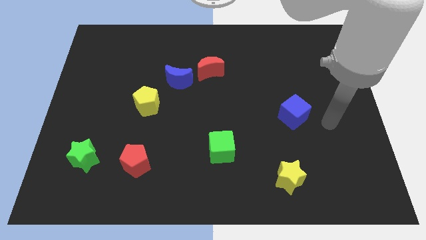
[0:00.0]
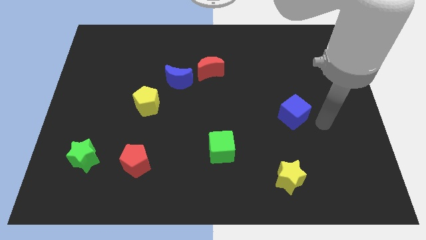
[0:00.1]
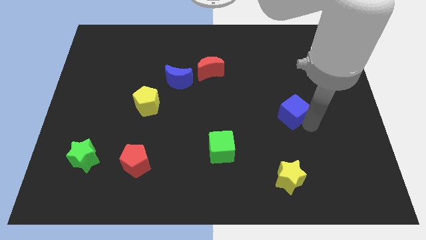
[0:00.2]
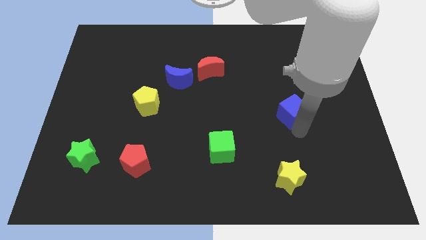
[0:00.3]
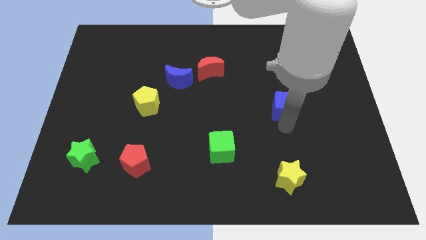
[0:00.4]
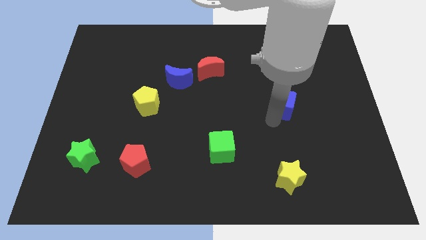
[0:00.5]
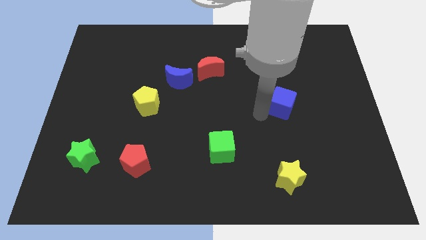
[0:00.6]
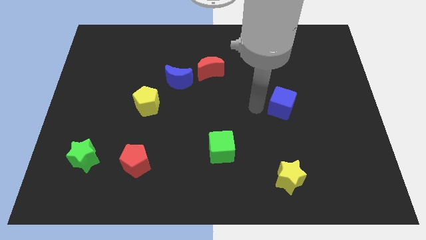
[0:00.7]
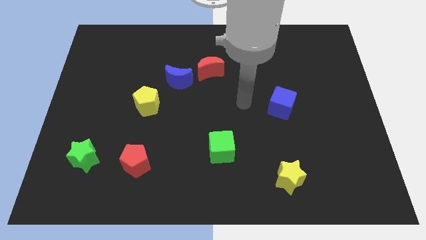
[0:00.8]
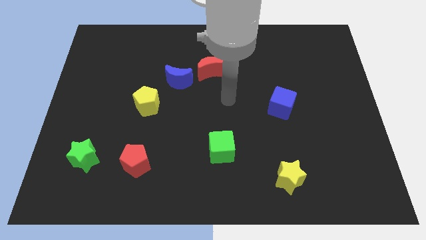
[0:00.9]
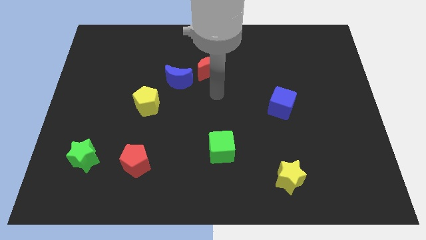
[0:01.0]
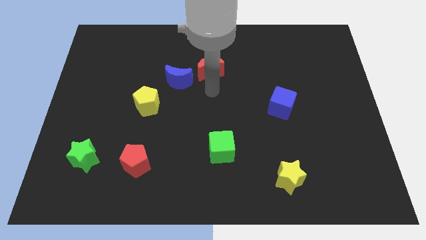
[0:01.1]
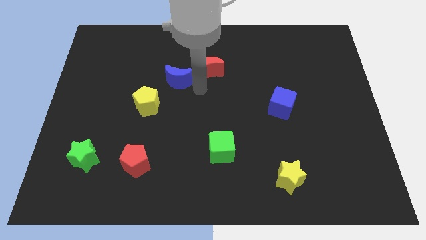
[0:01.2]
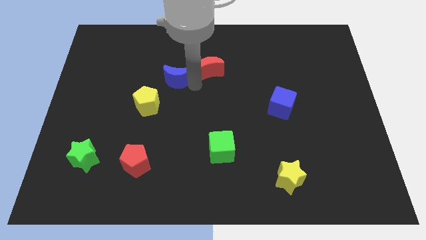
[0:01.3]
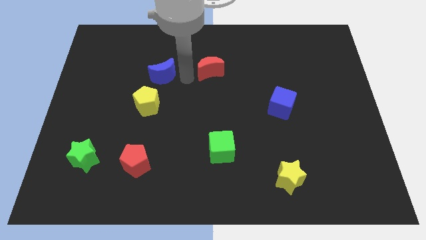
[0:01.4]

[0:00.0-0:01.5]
pull the red moon apart from the blue moon

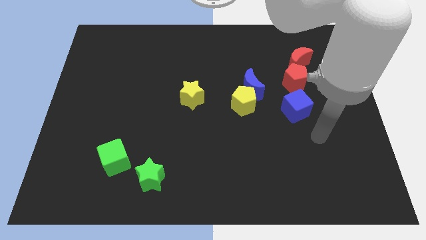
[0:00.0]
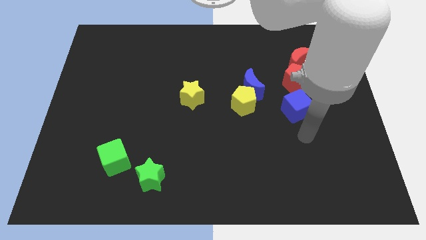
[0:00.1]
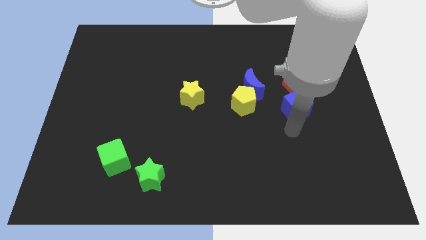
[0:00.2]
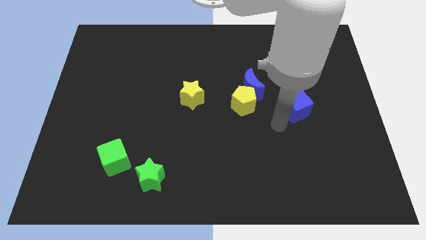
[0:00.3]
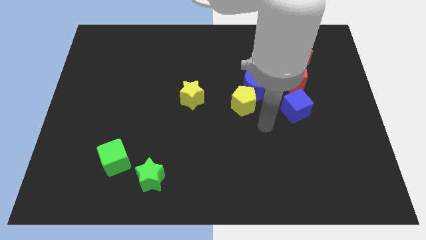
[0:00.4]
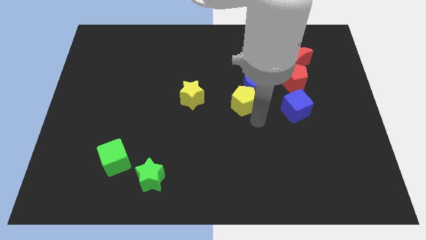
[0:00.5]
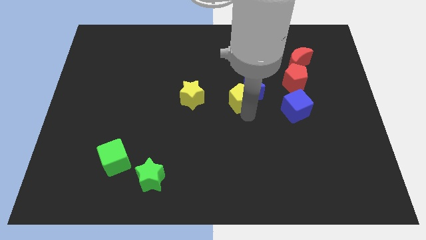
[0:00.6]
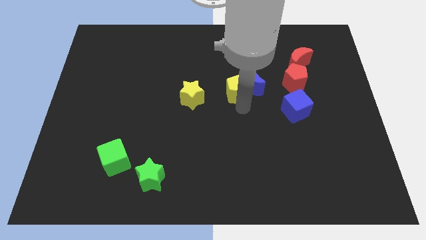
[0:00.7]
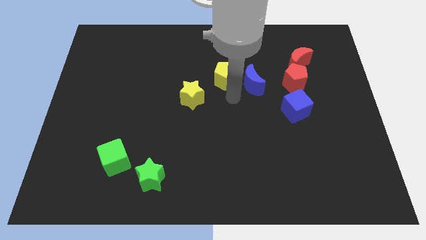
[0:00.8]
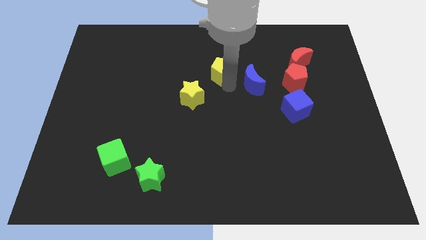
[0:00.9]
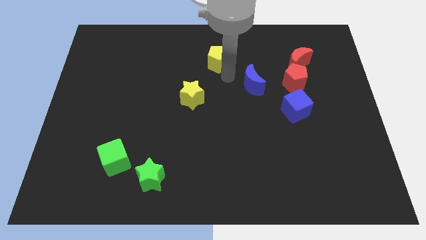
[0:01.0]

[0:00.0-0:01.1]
move the blue moon away from the yellow pentagon

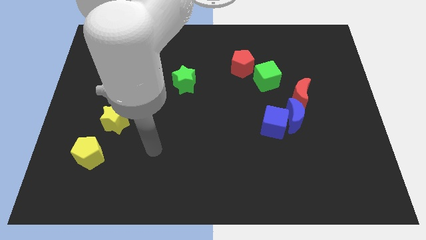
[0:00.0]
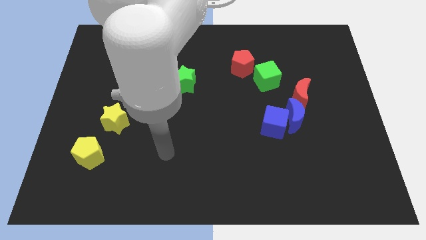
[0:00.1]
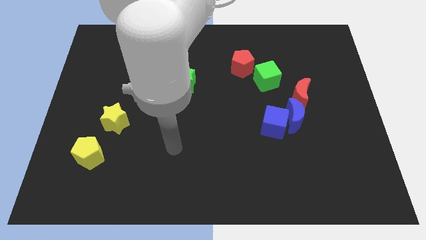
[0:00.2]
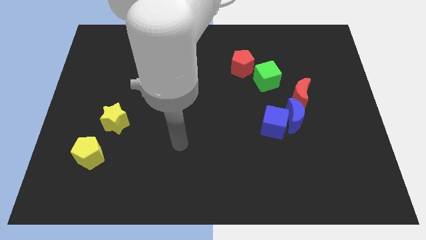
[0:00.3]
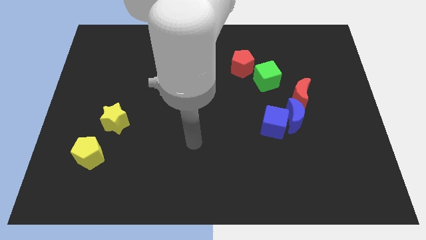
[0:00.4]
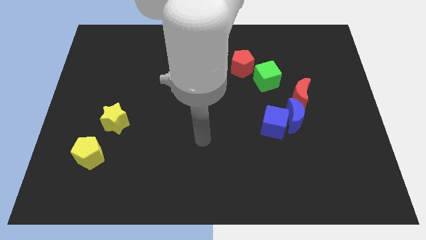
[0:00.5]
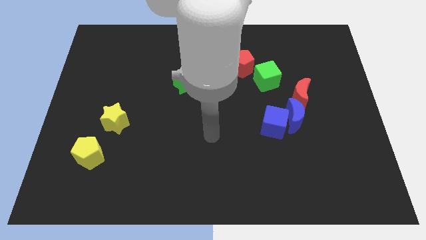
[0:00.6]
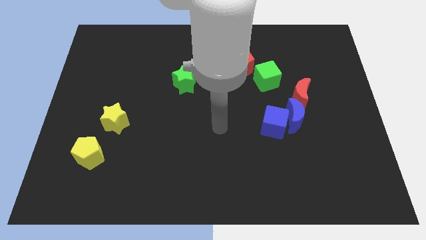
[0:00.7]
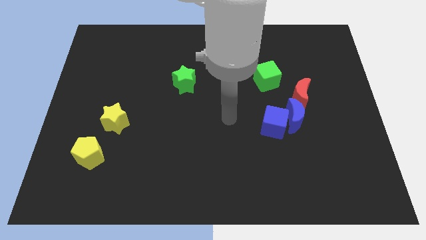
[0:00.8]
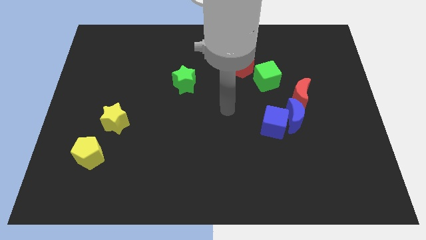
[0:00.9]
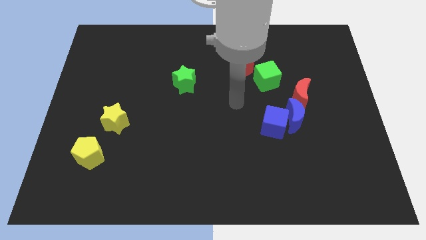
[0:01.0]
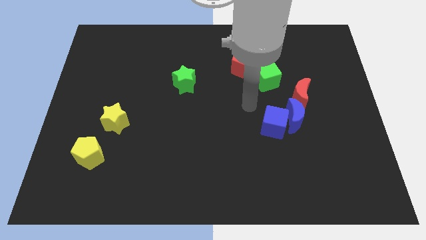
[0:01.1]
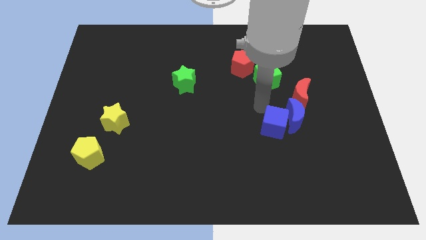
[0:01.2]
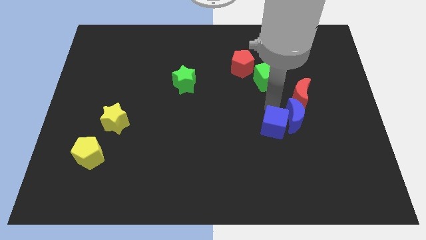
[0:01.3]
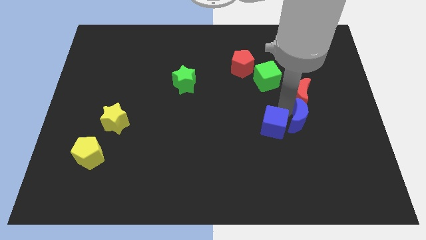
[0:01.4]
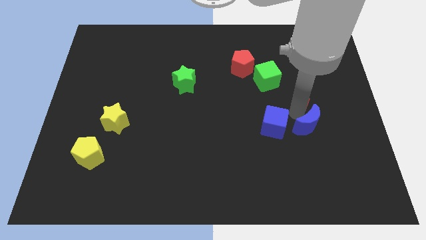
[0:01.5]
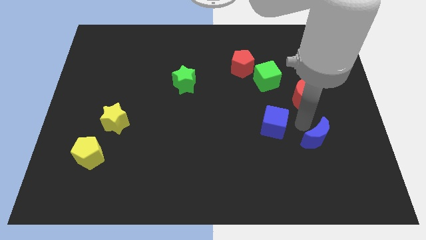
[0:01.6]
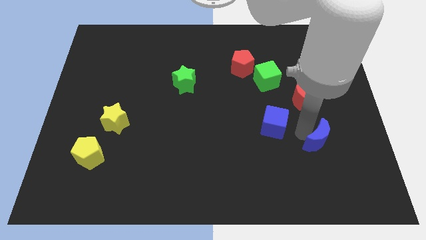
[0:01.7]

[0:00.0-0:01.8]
pull the blue cube apart from the blue moon

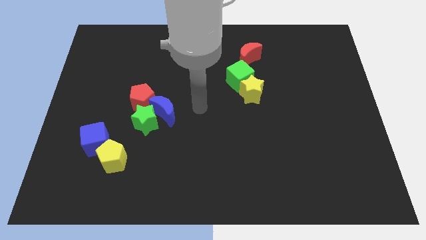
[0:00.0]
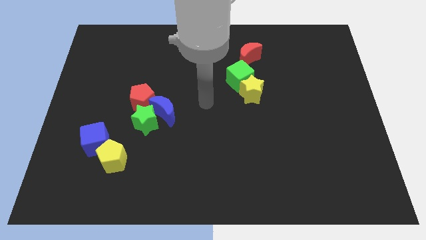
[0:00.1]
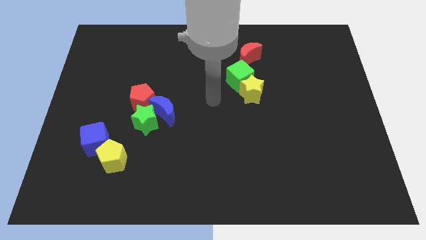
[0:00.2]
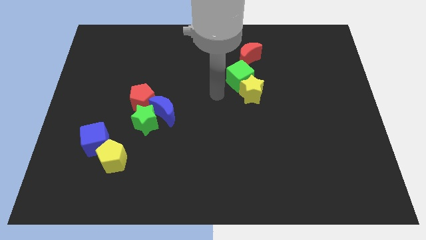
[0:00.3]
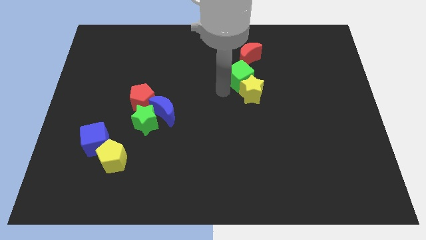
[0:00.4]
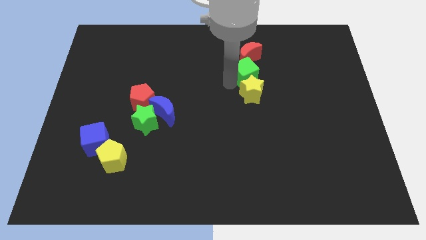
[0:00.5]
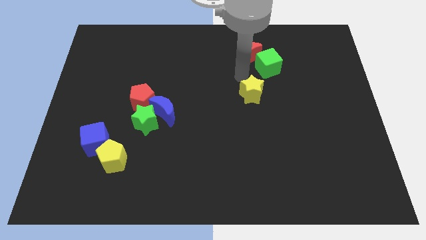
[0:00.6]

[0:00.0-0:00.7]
separate the yellow star from the green cube

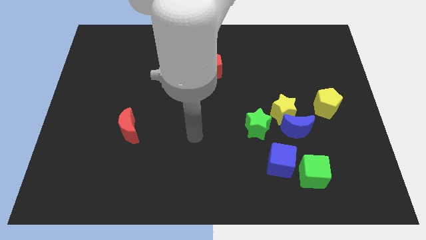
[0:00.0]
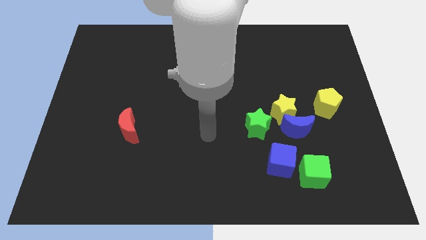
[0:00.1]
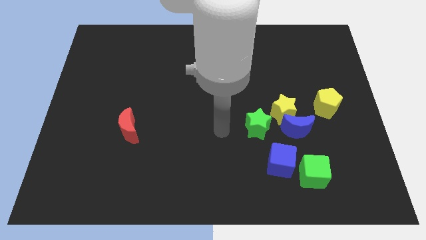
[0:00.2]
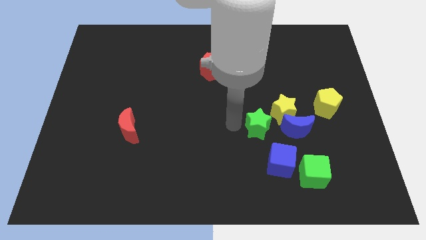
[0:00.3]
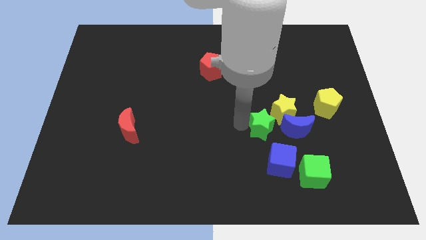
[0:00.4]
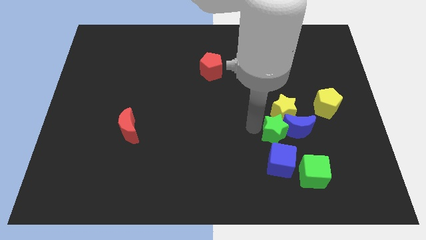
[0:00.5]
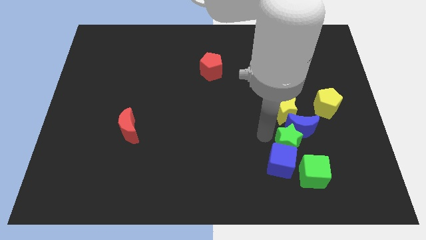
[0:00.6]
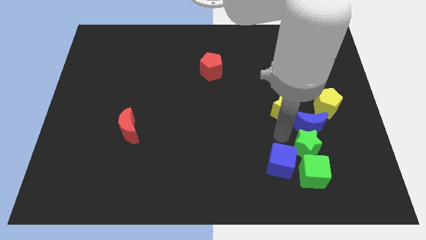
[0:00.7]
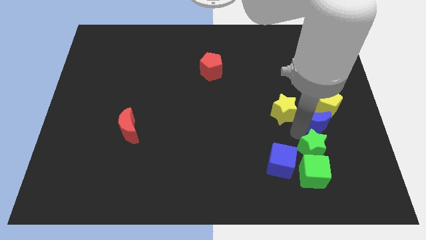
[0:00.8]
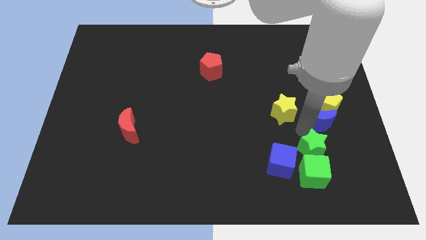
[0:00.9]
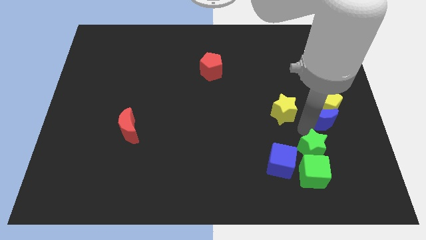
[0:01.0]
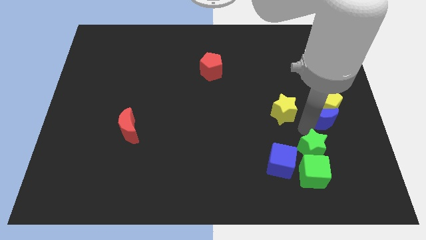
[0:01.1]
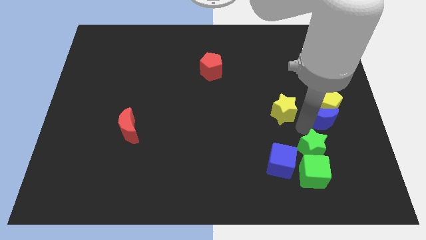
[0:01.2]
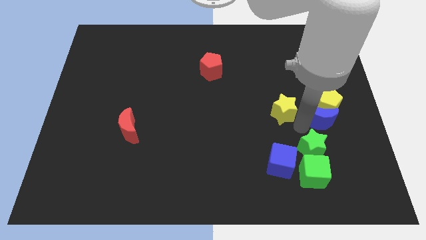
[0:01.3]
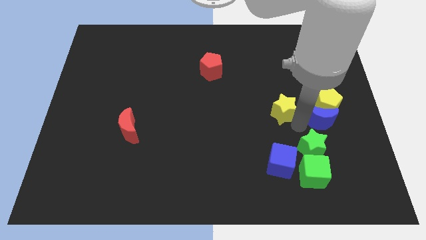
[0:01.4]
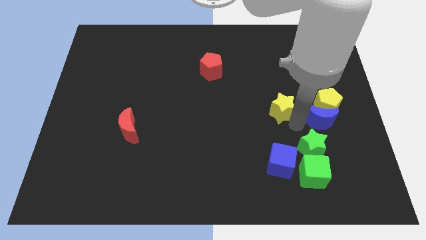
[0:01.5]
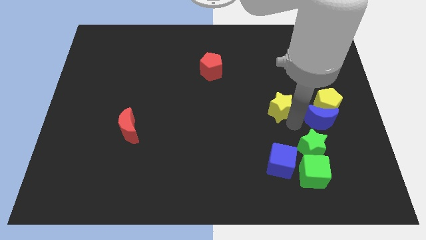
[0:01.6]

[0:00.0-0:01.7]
move the yellow star away from the blue moon and green star

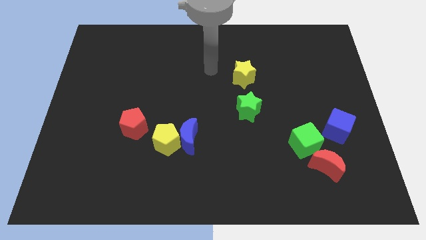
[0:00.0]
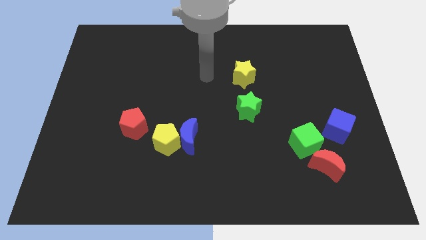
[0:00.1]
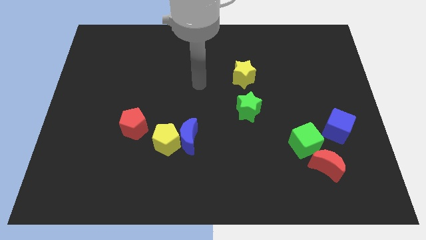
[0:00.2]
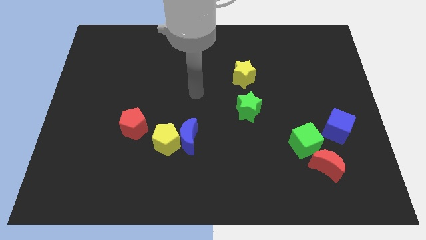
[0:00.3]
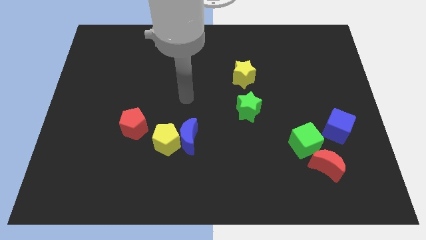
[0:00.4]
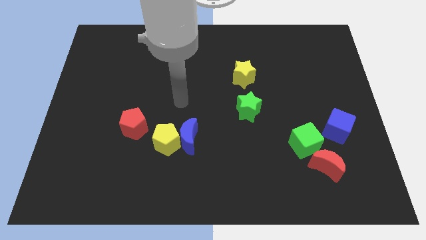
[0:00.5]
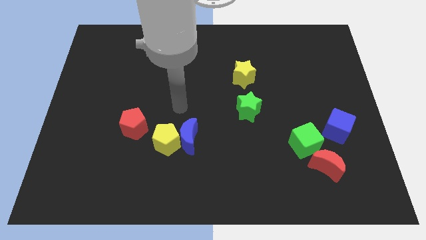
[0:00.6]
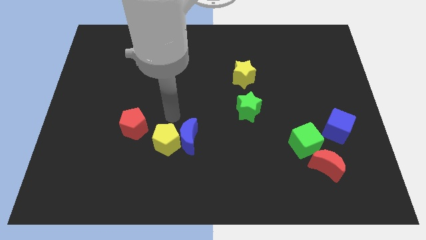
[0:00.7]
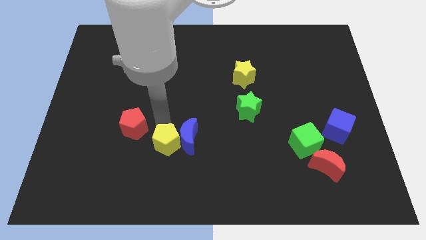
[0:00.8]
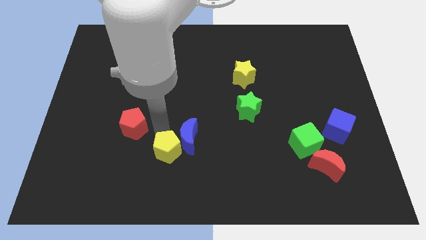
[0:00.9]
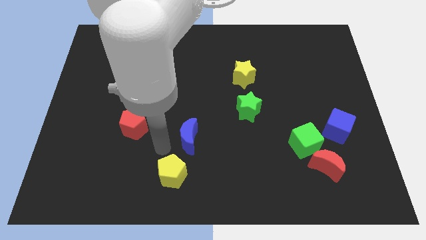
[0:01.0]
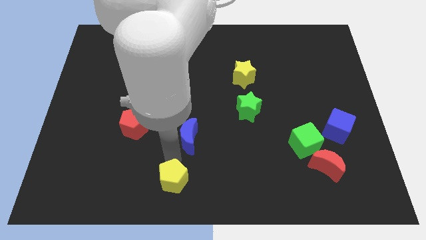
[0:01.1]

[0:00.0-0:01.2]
pull the blue moon apart from the yellow pentagon

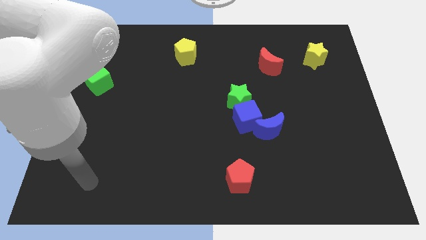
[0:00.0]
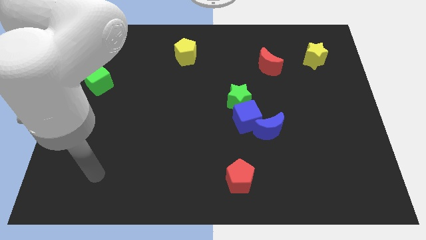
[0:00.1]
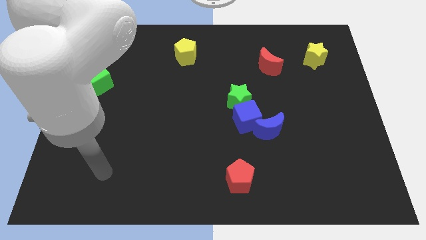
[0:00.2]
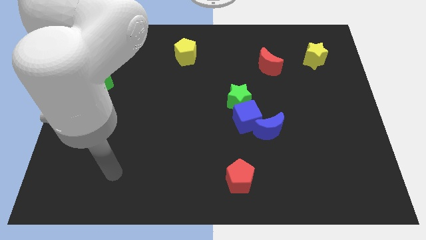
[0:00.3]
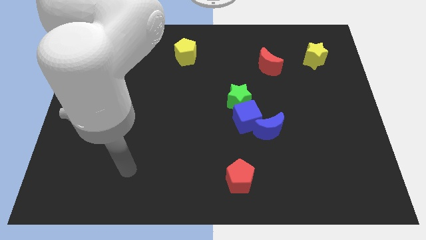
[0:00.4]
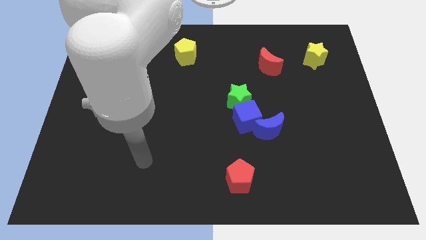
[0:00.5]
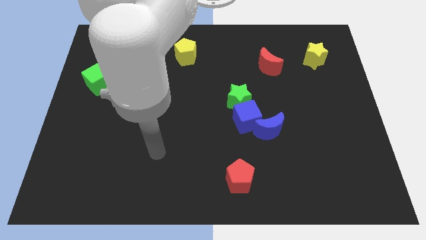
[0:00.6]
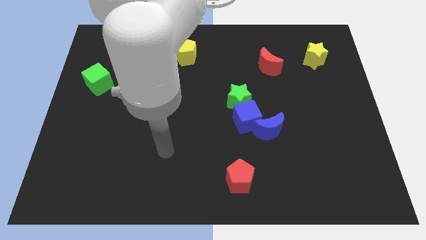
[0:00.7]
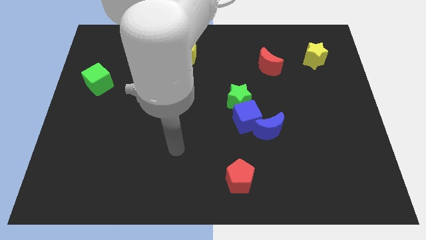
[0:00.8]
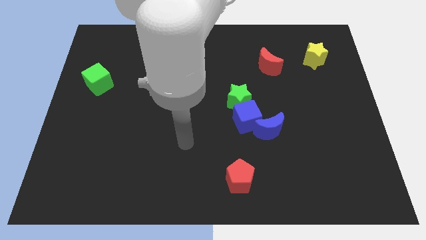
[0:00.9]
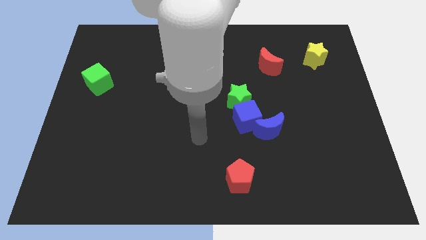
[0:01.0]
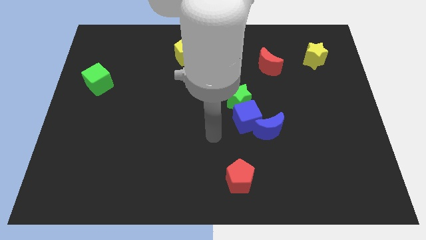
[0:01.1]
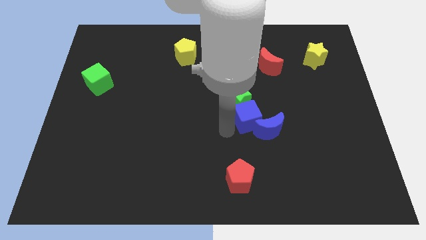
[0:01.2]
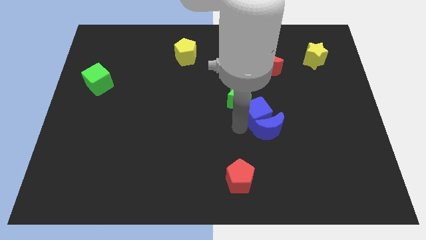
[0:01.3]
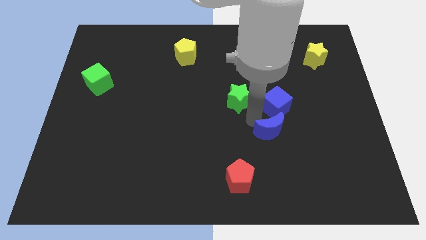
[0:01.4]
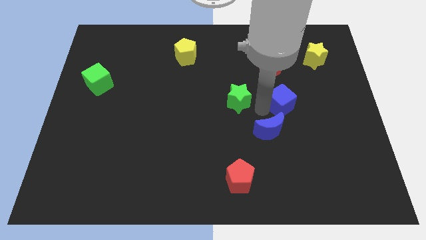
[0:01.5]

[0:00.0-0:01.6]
move the green star away from the blue cube
